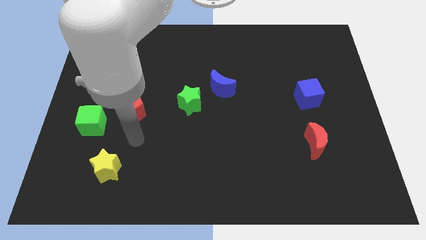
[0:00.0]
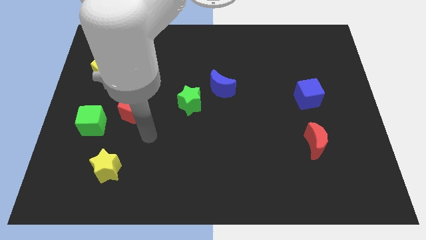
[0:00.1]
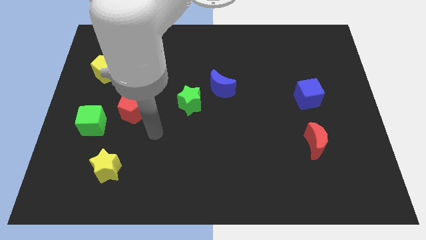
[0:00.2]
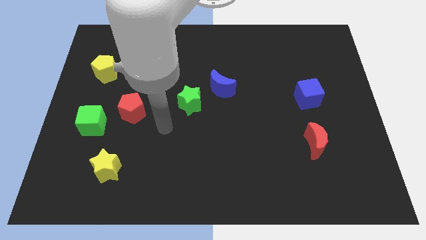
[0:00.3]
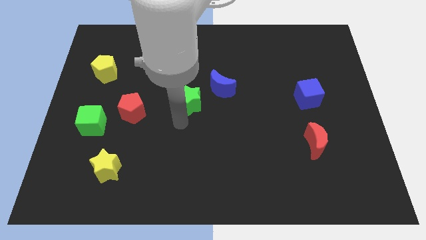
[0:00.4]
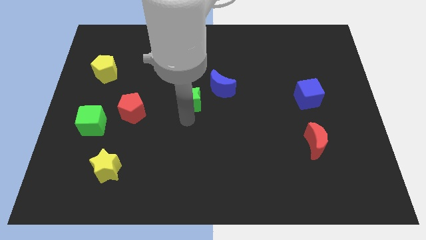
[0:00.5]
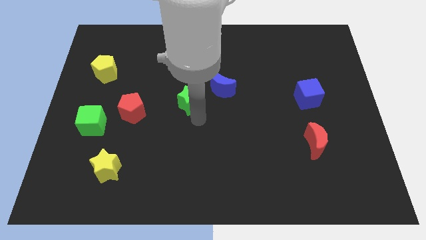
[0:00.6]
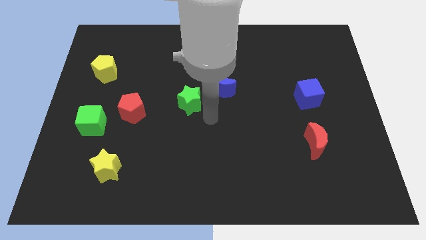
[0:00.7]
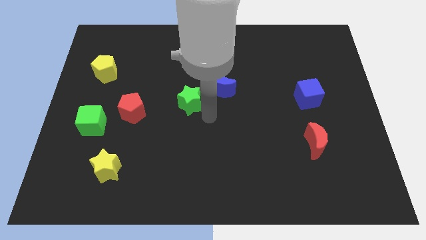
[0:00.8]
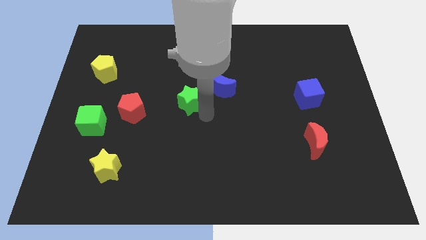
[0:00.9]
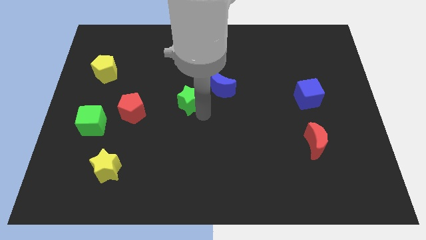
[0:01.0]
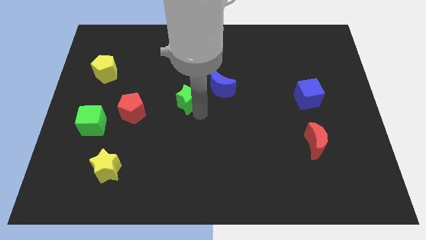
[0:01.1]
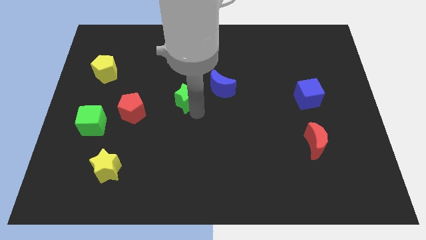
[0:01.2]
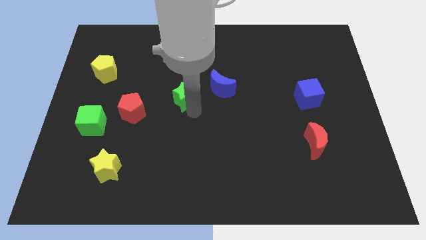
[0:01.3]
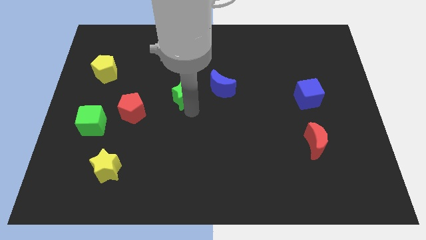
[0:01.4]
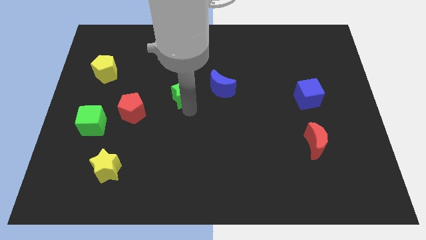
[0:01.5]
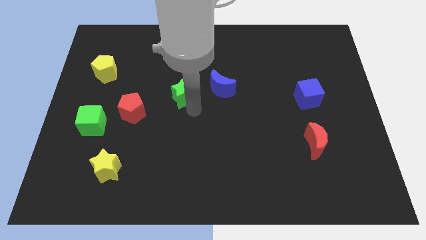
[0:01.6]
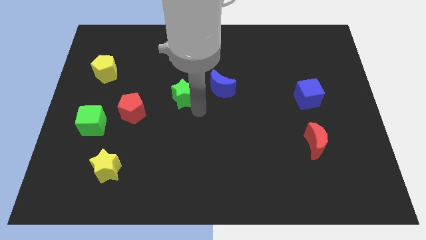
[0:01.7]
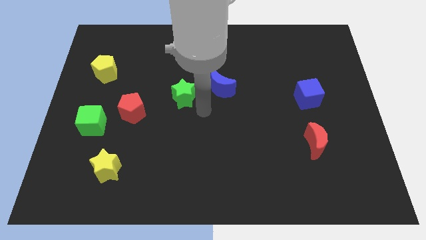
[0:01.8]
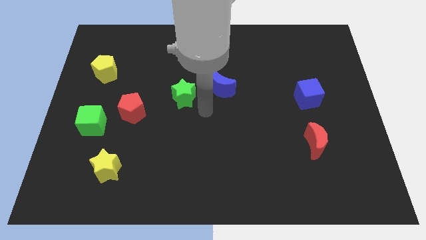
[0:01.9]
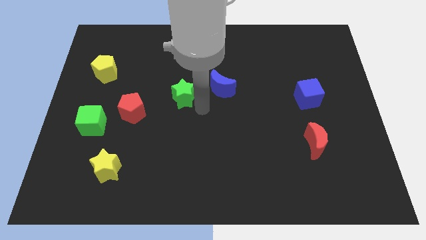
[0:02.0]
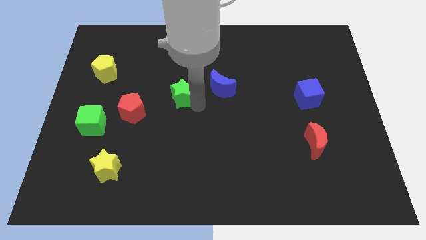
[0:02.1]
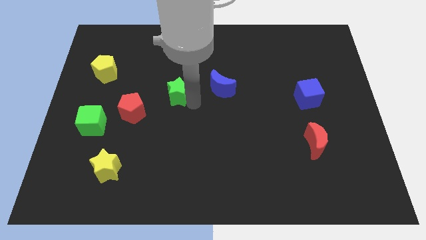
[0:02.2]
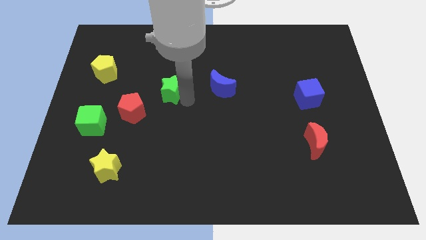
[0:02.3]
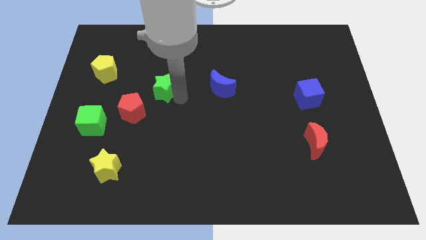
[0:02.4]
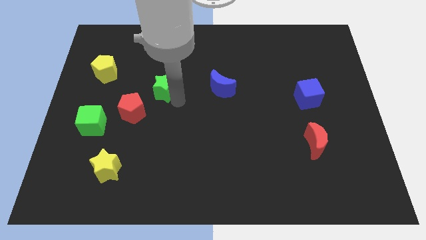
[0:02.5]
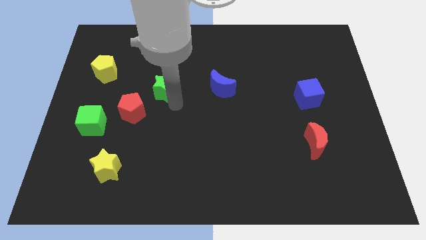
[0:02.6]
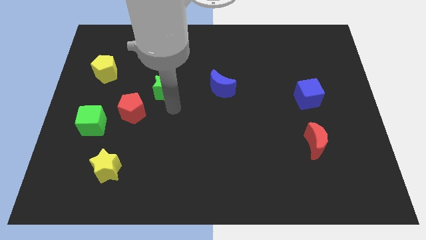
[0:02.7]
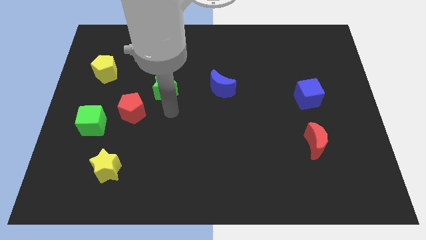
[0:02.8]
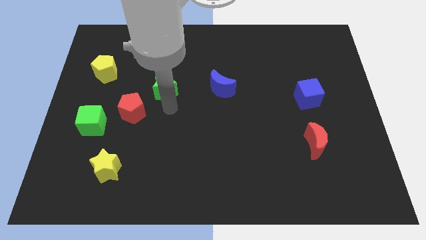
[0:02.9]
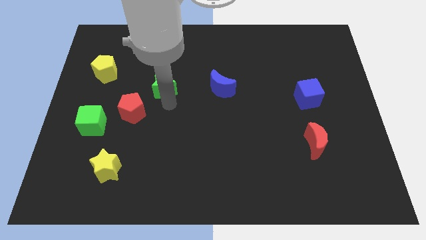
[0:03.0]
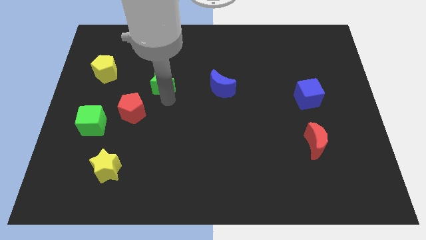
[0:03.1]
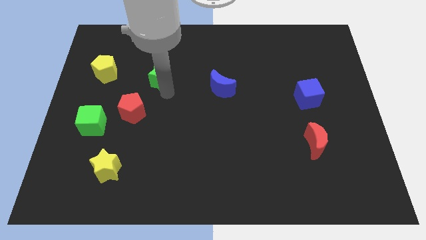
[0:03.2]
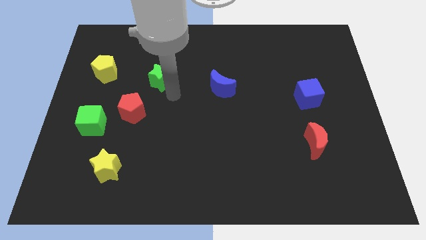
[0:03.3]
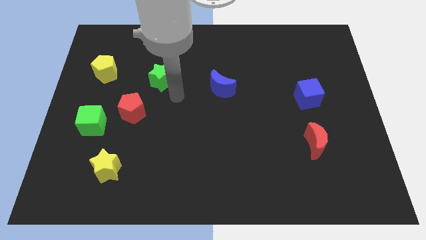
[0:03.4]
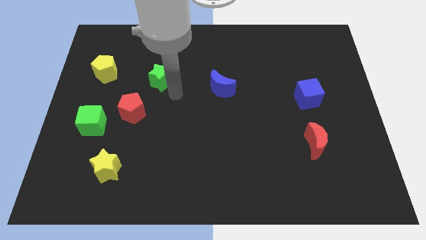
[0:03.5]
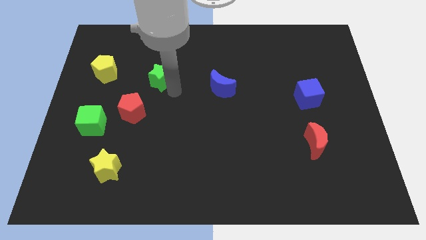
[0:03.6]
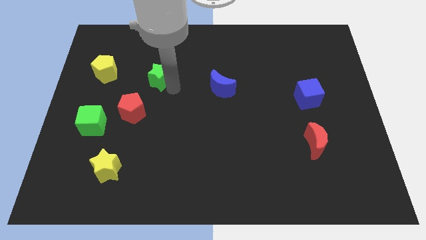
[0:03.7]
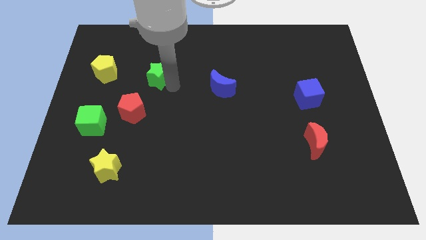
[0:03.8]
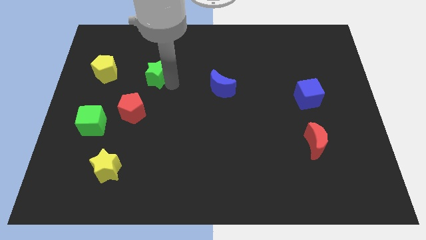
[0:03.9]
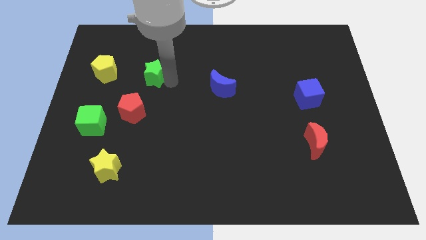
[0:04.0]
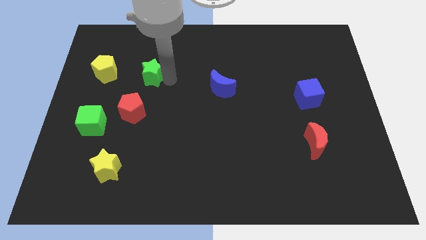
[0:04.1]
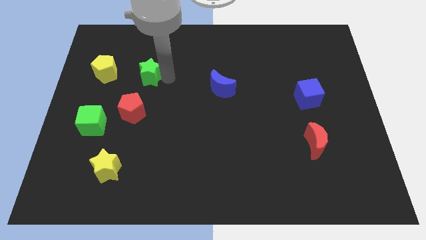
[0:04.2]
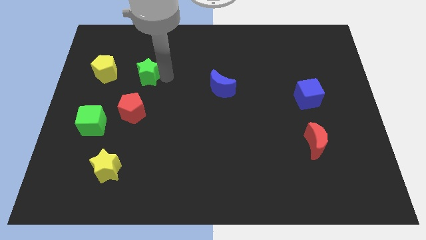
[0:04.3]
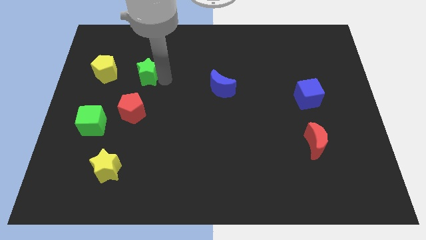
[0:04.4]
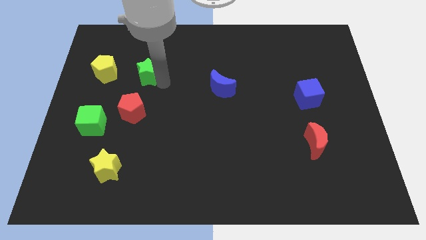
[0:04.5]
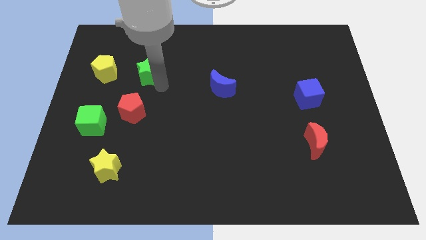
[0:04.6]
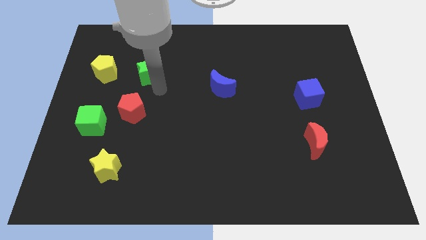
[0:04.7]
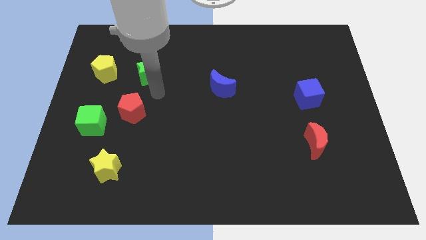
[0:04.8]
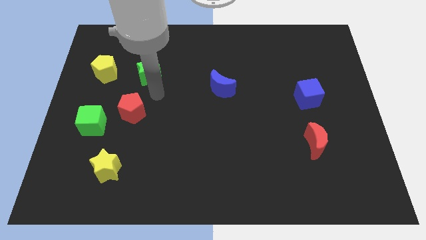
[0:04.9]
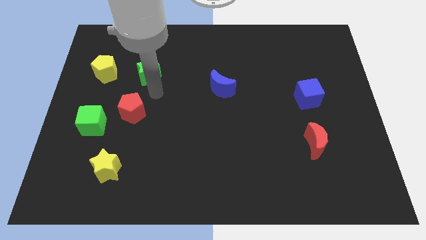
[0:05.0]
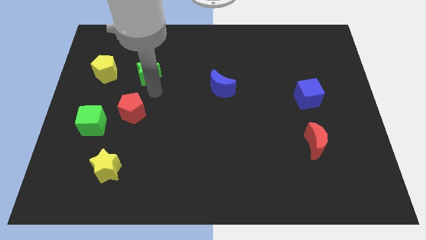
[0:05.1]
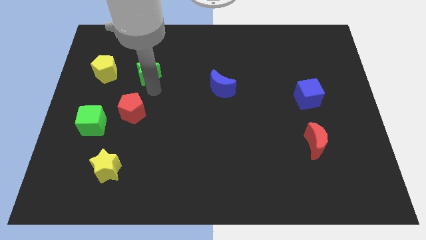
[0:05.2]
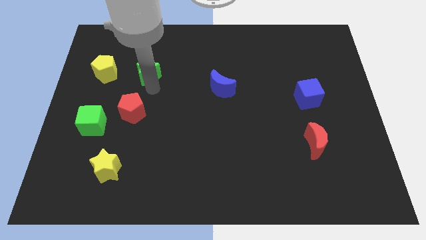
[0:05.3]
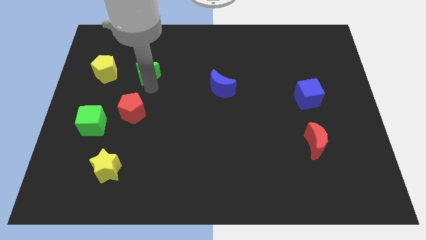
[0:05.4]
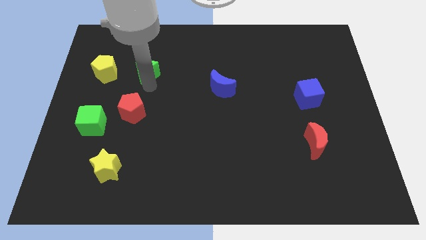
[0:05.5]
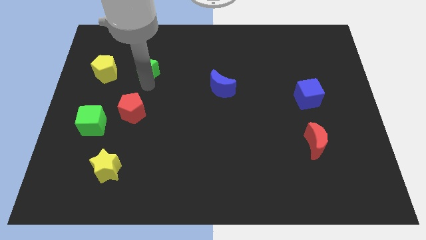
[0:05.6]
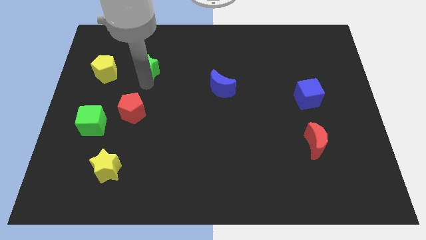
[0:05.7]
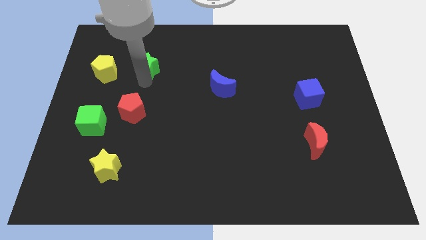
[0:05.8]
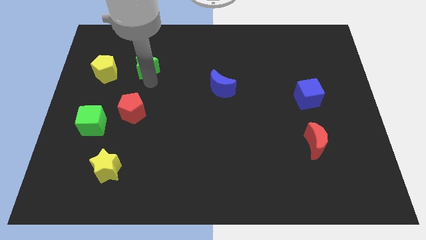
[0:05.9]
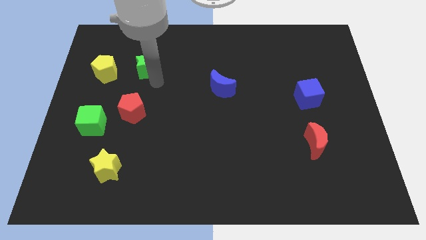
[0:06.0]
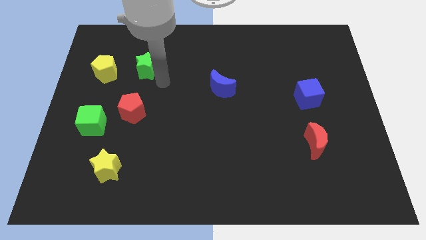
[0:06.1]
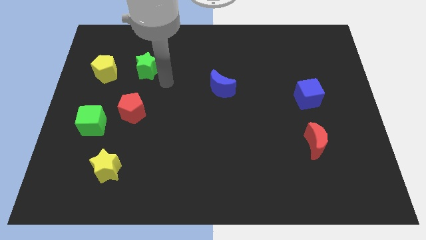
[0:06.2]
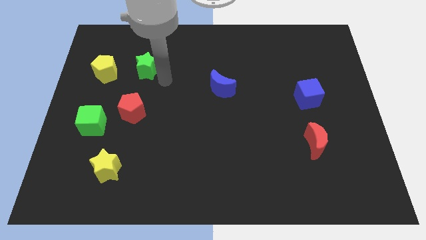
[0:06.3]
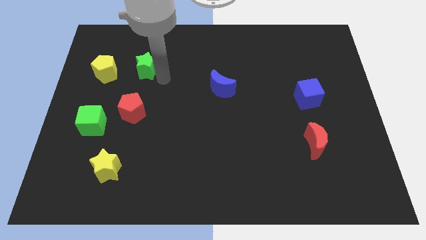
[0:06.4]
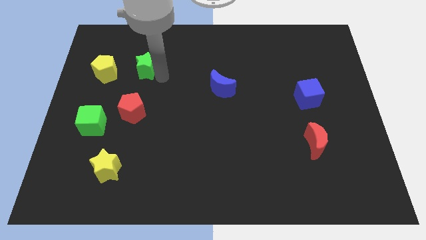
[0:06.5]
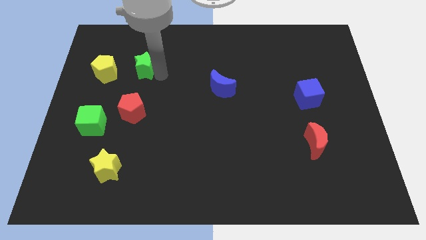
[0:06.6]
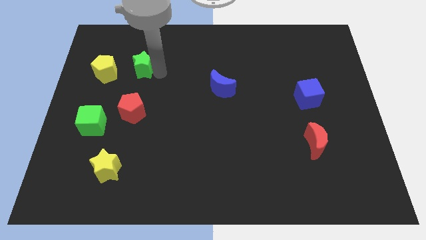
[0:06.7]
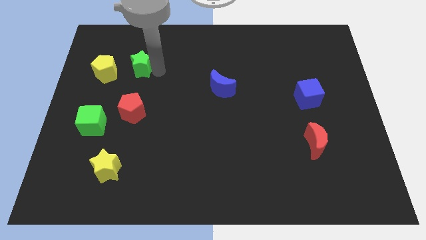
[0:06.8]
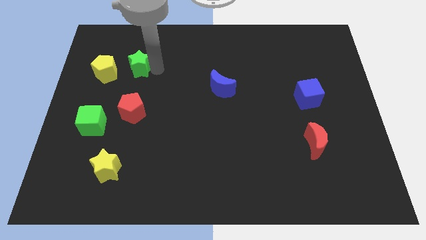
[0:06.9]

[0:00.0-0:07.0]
push the green star to the top right of the yellow pentagon
